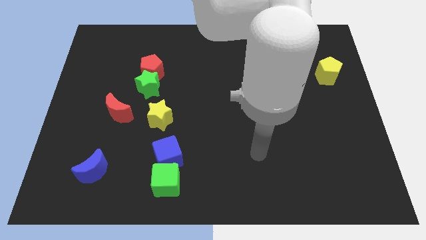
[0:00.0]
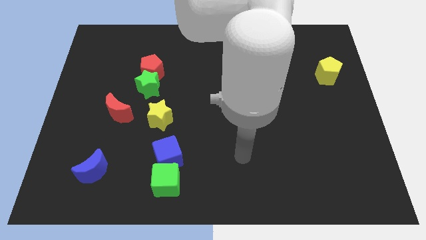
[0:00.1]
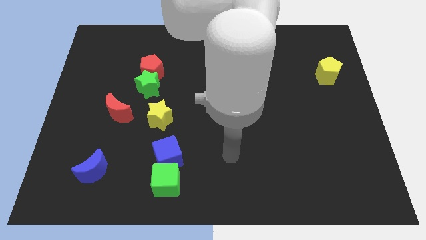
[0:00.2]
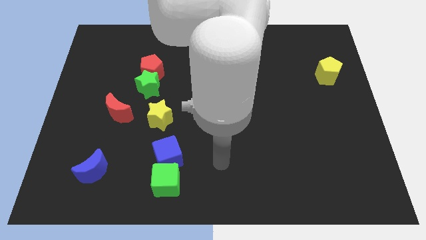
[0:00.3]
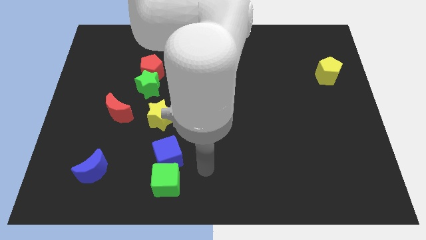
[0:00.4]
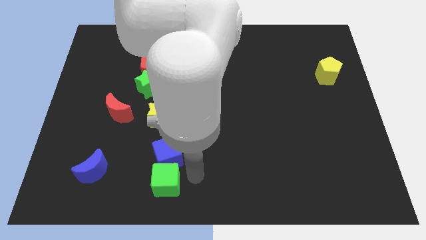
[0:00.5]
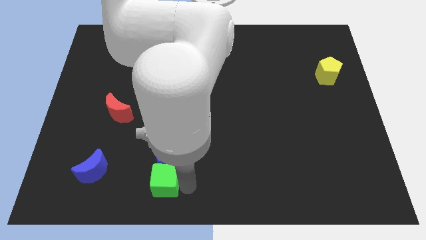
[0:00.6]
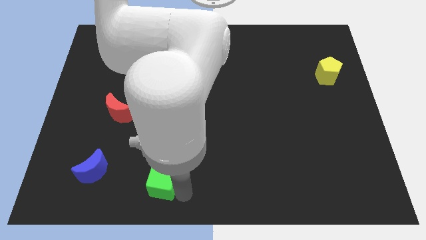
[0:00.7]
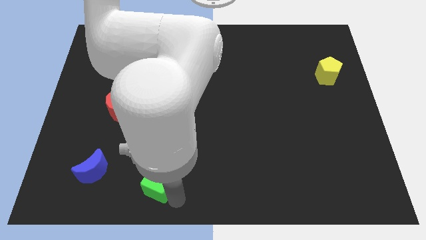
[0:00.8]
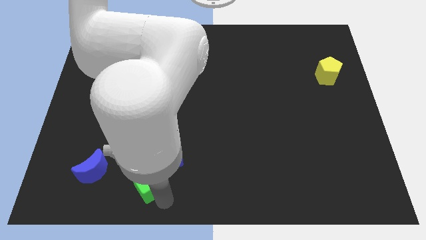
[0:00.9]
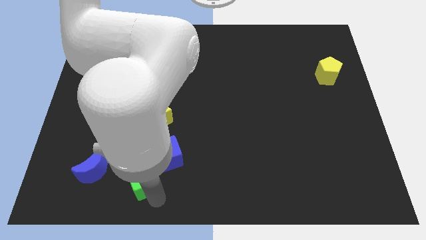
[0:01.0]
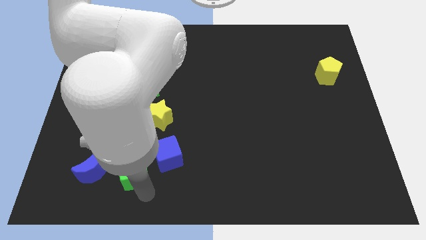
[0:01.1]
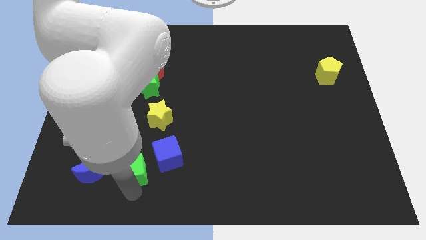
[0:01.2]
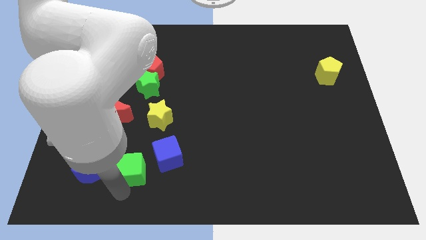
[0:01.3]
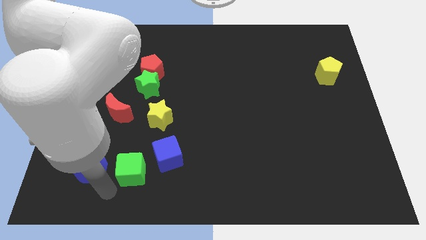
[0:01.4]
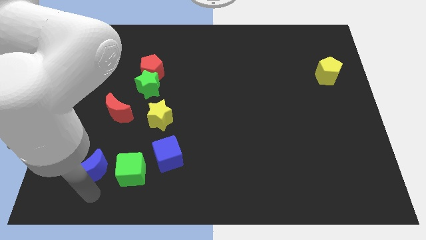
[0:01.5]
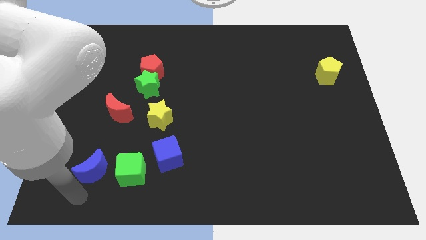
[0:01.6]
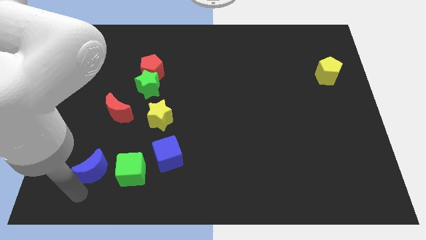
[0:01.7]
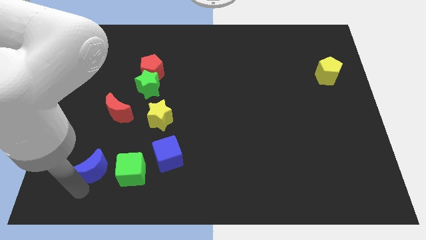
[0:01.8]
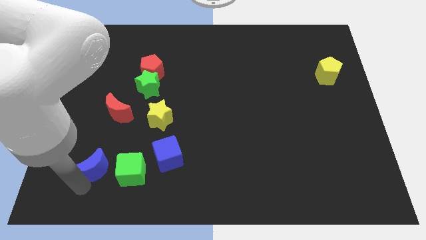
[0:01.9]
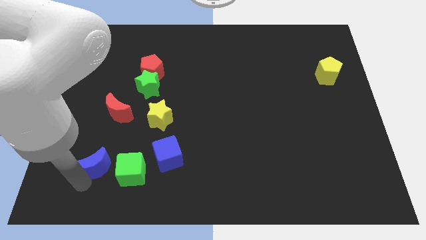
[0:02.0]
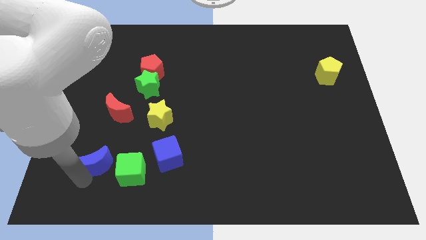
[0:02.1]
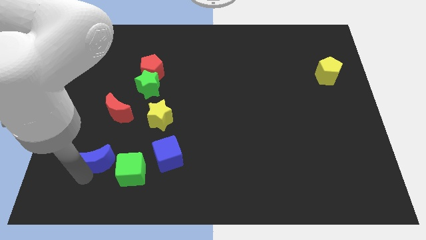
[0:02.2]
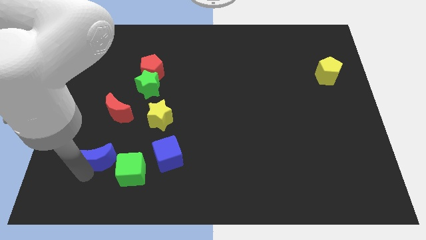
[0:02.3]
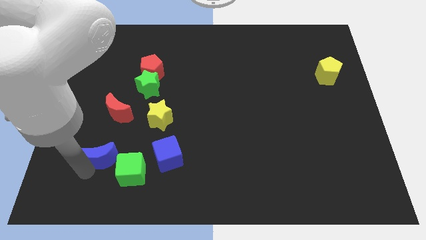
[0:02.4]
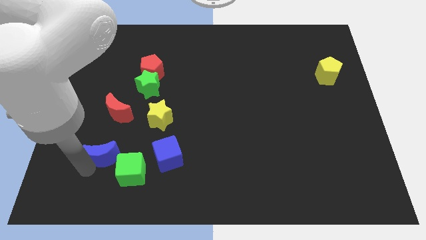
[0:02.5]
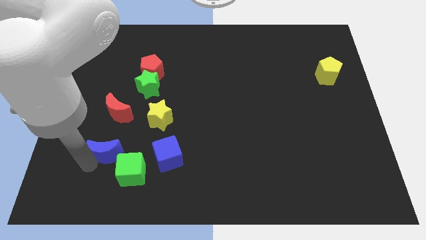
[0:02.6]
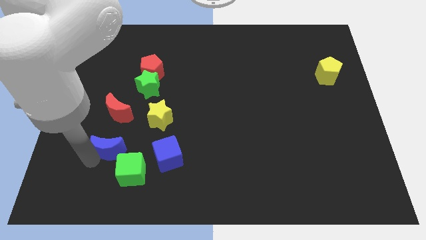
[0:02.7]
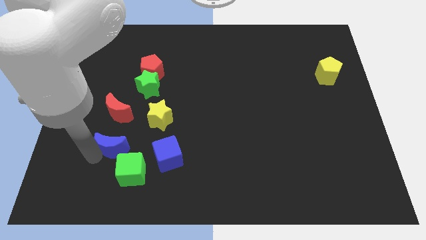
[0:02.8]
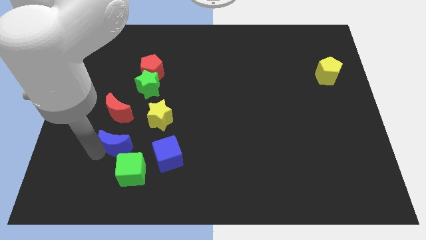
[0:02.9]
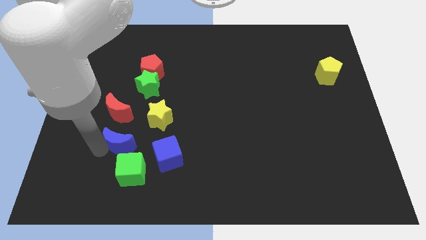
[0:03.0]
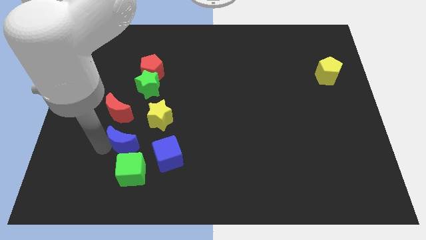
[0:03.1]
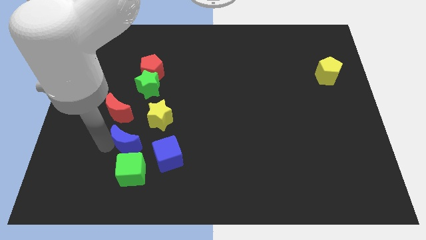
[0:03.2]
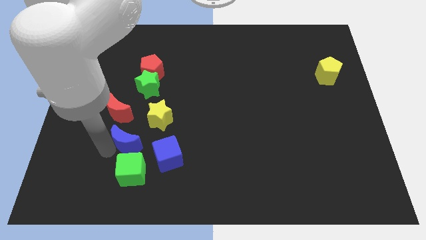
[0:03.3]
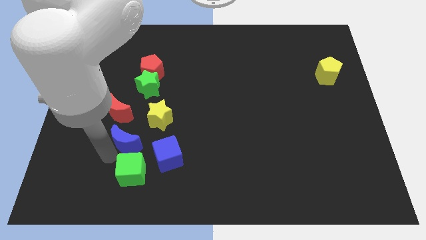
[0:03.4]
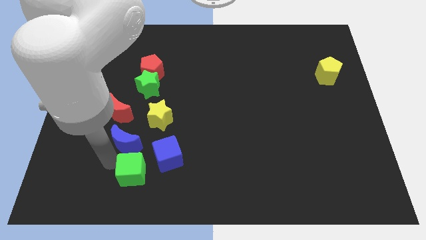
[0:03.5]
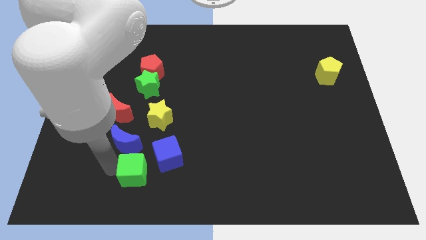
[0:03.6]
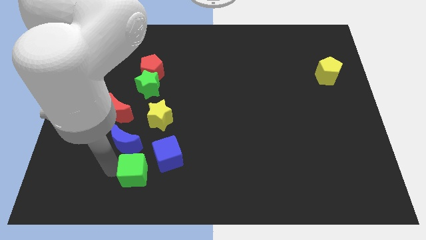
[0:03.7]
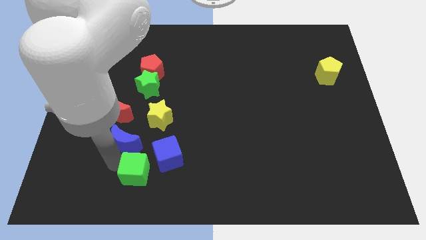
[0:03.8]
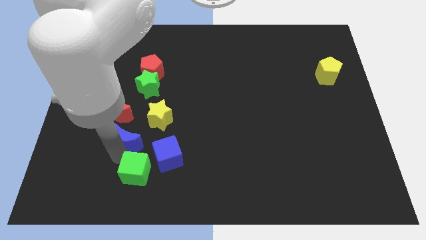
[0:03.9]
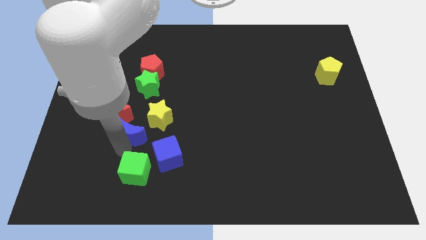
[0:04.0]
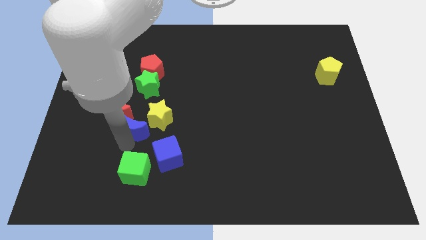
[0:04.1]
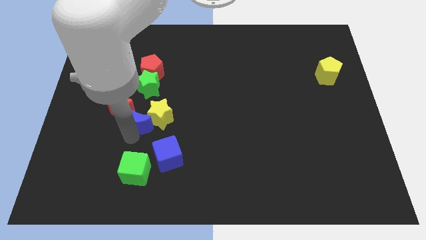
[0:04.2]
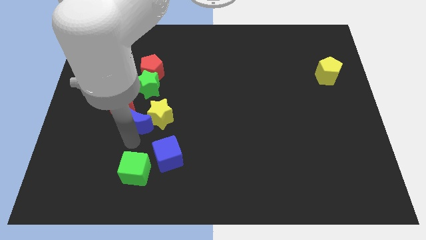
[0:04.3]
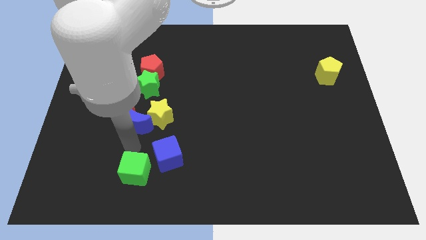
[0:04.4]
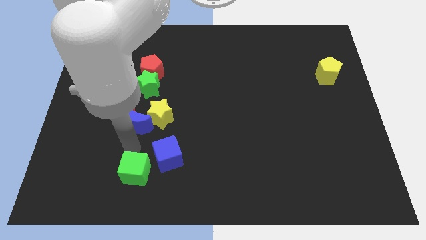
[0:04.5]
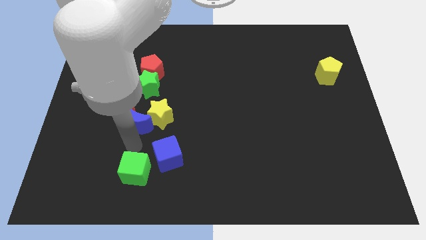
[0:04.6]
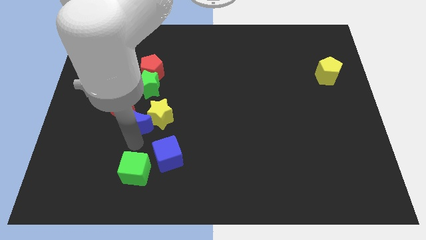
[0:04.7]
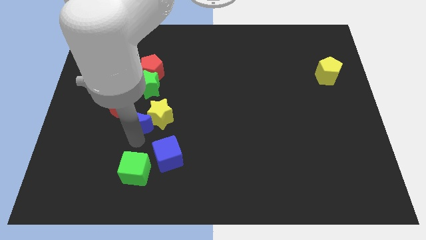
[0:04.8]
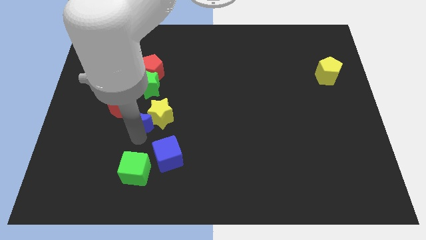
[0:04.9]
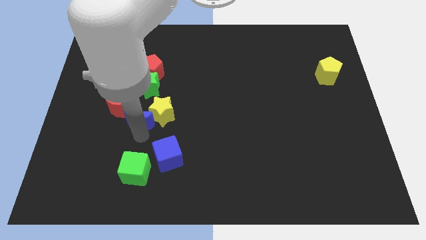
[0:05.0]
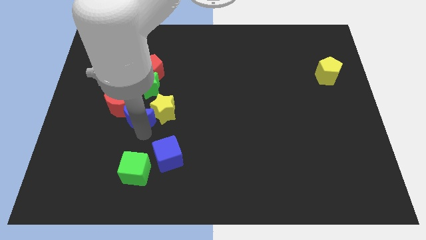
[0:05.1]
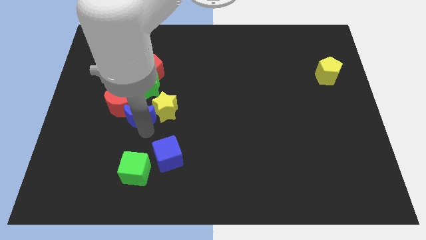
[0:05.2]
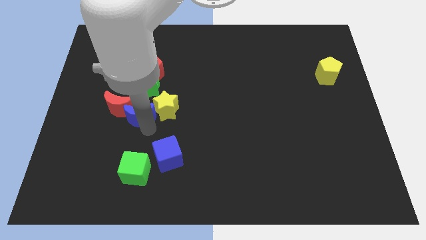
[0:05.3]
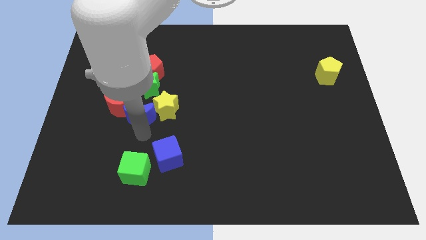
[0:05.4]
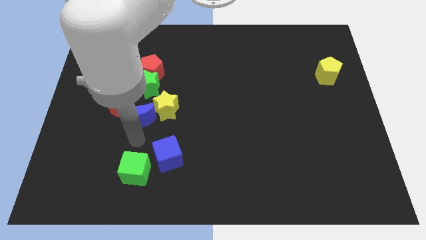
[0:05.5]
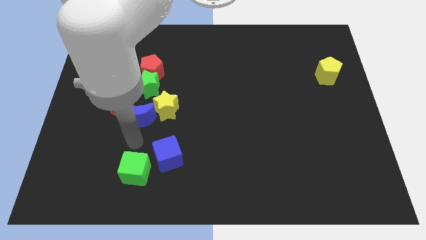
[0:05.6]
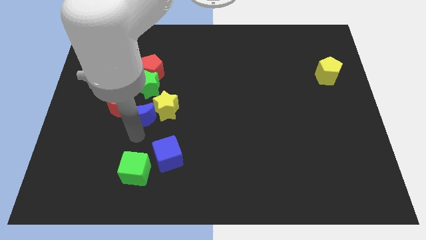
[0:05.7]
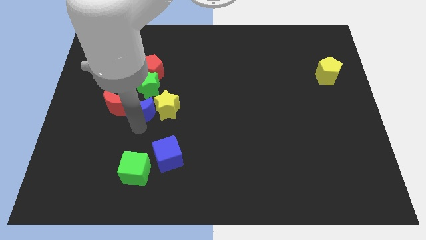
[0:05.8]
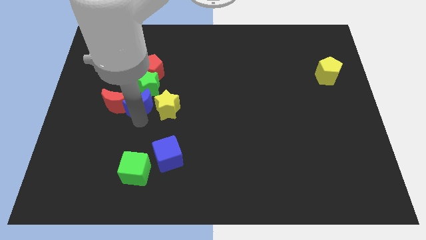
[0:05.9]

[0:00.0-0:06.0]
slide the blue moon to the top left of the yellow star

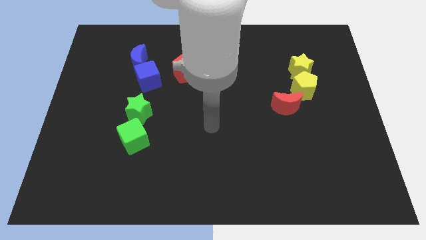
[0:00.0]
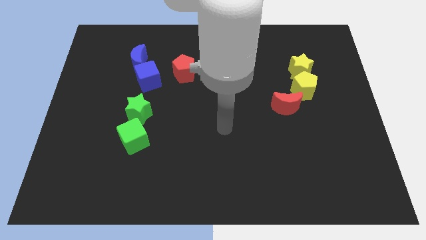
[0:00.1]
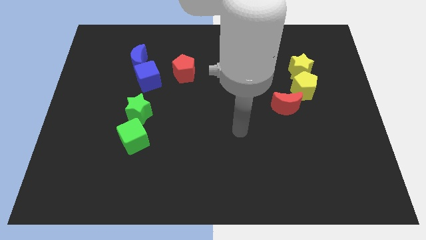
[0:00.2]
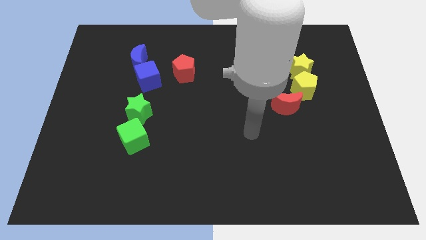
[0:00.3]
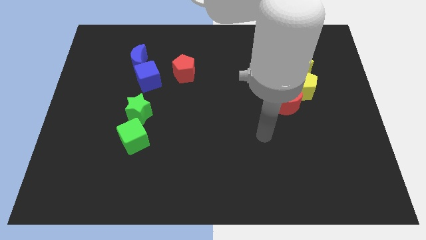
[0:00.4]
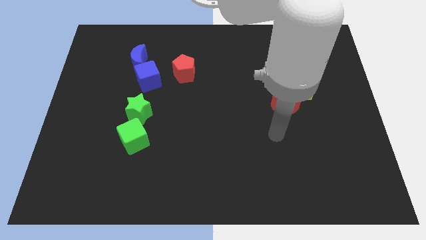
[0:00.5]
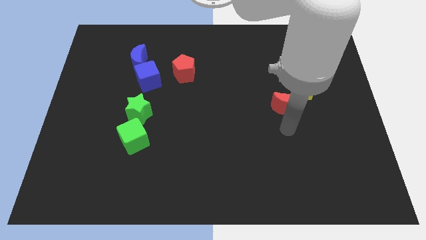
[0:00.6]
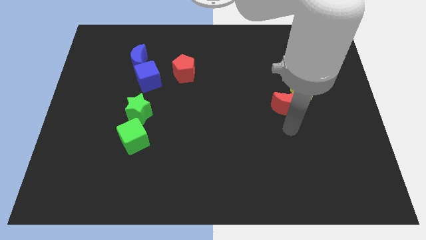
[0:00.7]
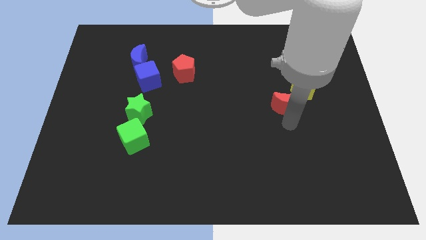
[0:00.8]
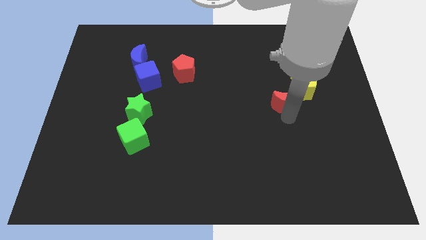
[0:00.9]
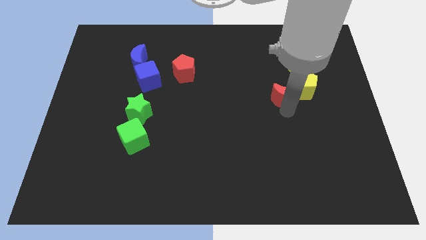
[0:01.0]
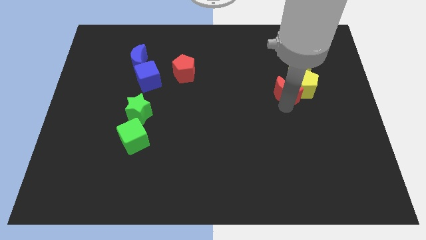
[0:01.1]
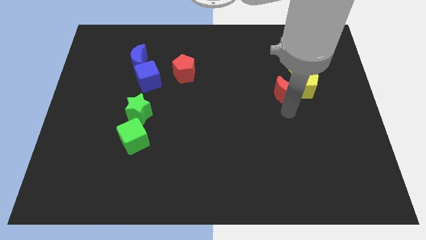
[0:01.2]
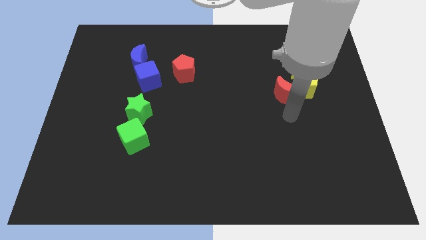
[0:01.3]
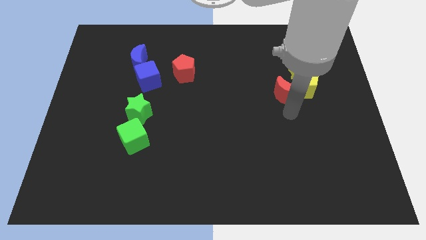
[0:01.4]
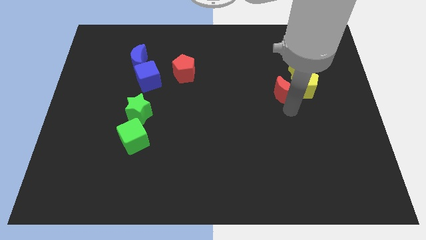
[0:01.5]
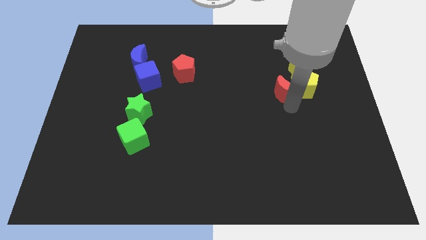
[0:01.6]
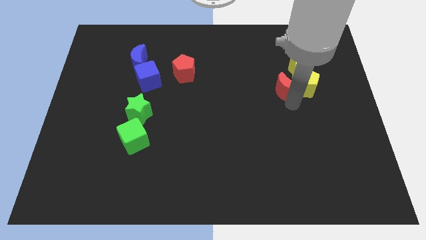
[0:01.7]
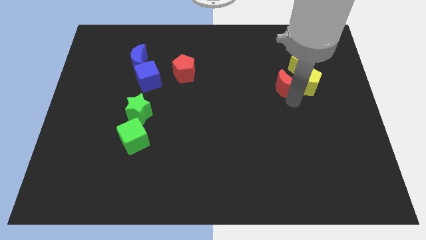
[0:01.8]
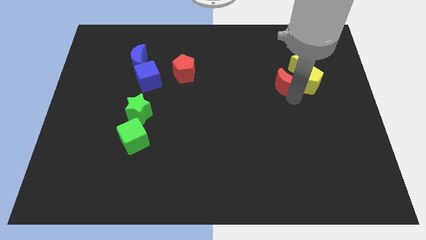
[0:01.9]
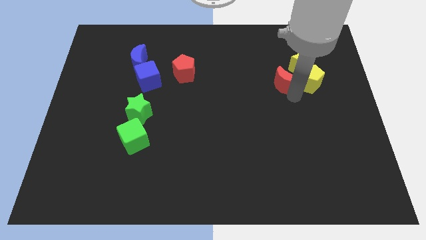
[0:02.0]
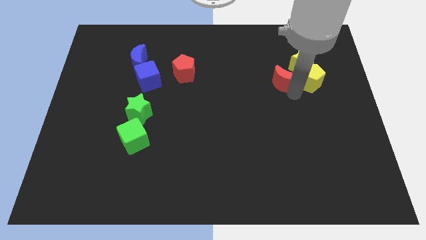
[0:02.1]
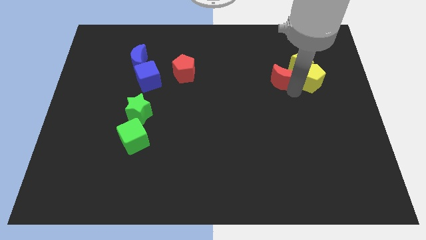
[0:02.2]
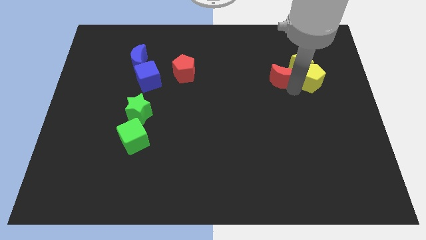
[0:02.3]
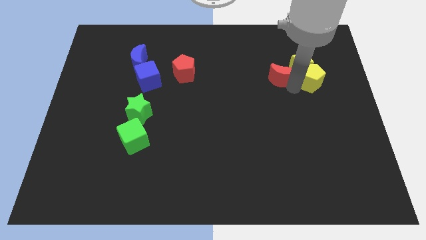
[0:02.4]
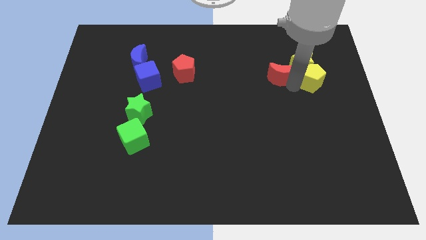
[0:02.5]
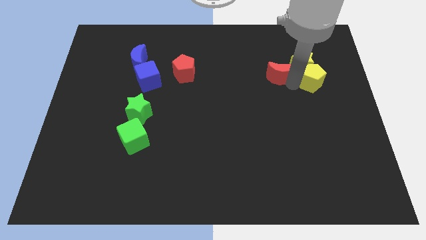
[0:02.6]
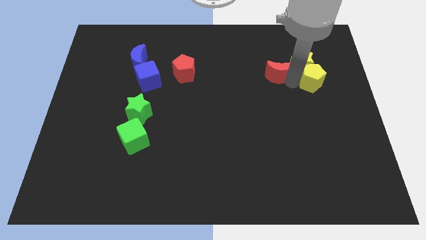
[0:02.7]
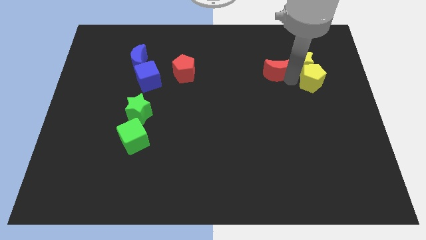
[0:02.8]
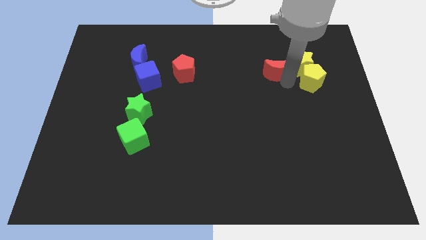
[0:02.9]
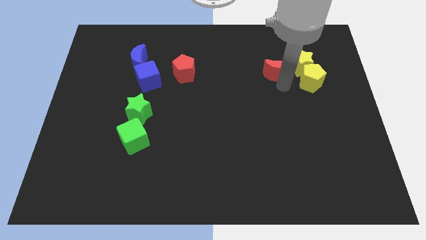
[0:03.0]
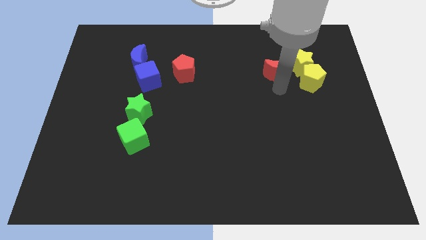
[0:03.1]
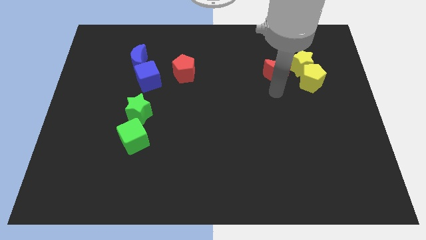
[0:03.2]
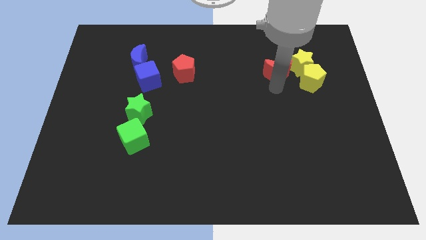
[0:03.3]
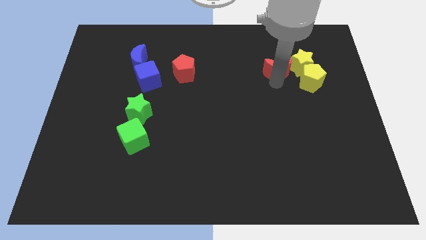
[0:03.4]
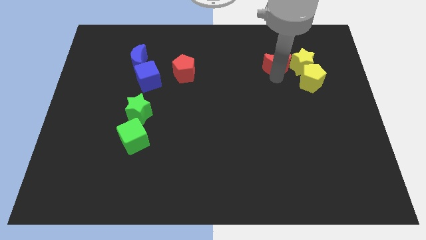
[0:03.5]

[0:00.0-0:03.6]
move the red moon to the top left side of the yellow star
